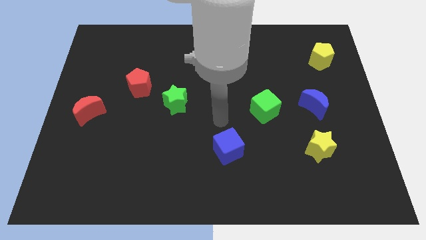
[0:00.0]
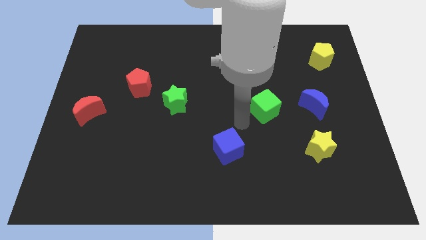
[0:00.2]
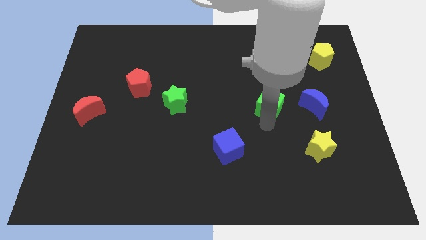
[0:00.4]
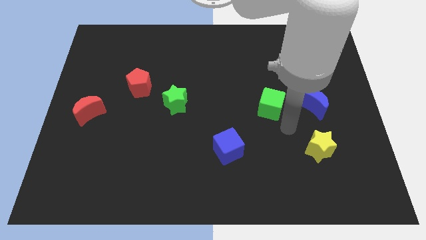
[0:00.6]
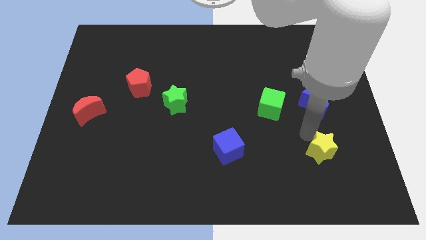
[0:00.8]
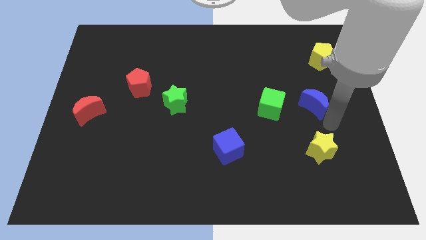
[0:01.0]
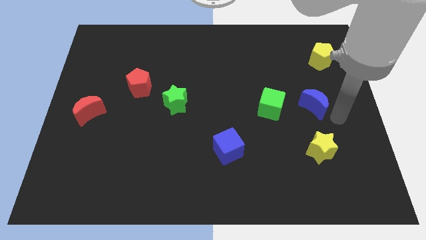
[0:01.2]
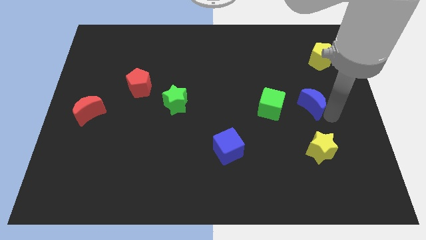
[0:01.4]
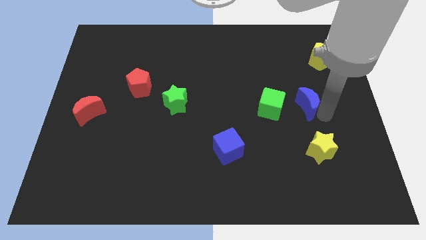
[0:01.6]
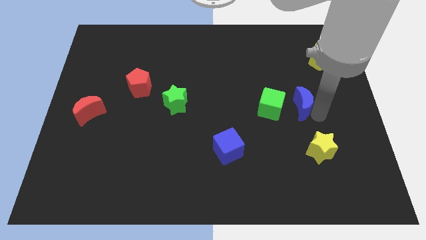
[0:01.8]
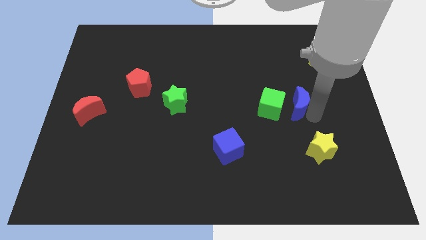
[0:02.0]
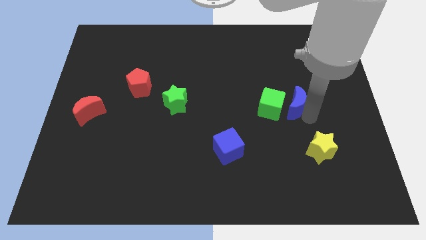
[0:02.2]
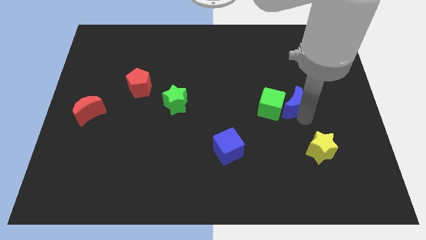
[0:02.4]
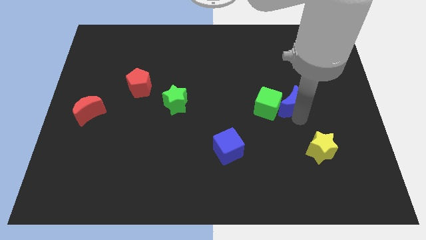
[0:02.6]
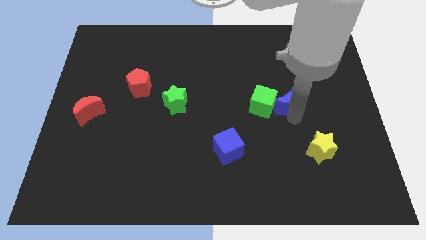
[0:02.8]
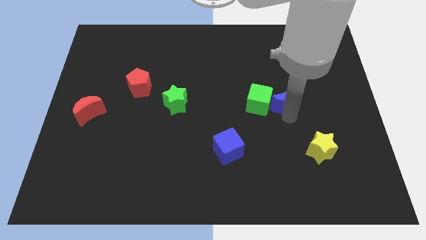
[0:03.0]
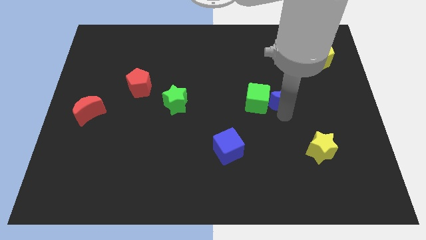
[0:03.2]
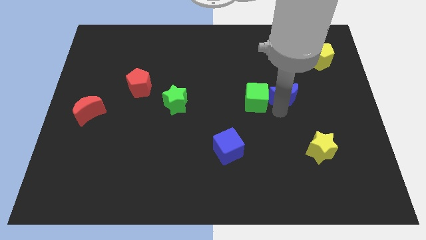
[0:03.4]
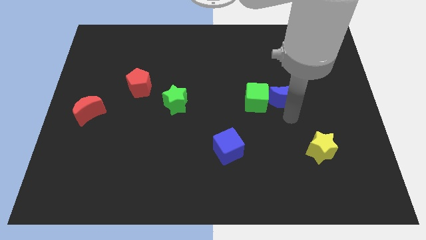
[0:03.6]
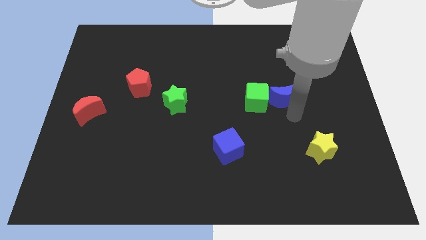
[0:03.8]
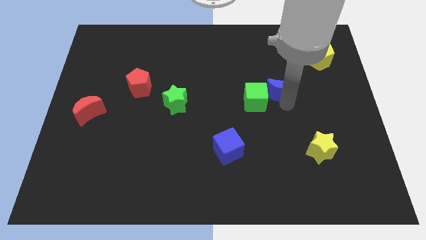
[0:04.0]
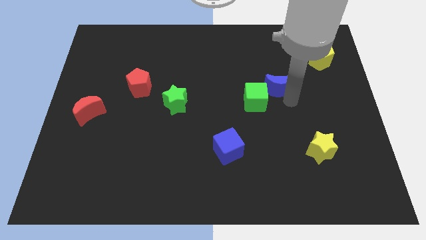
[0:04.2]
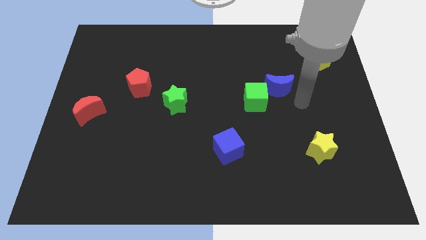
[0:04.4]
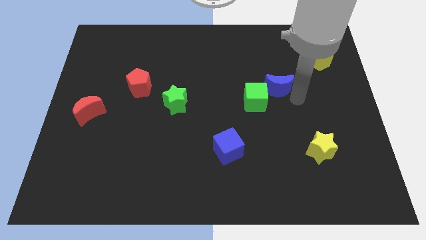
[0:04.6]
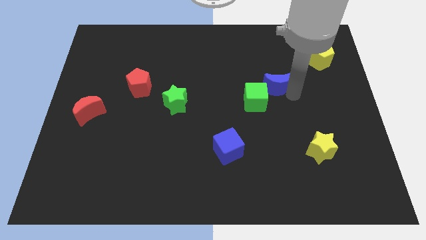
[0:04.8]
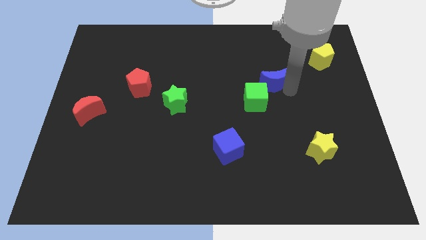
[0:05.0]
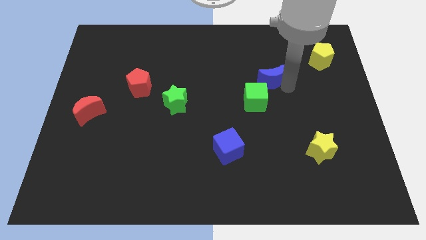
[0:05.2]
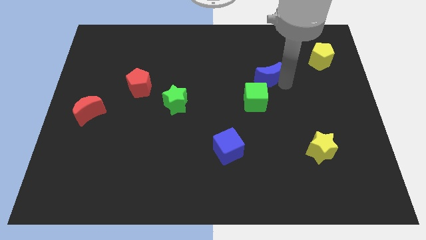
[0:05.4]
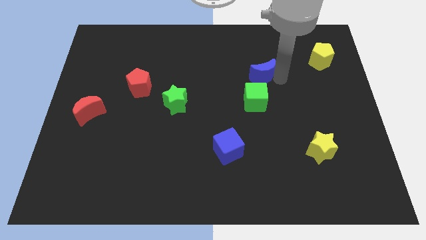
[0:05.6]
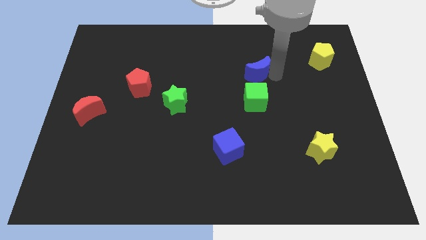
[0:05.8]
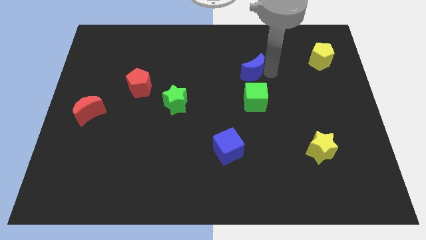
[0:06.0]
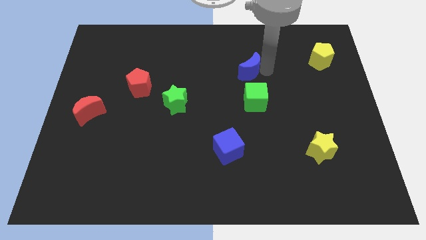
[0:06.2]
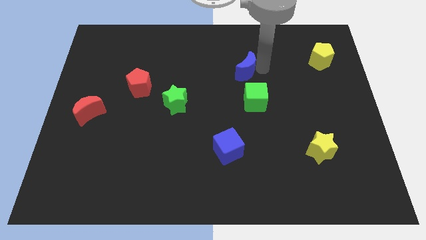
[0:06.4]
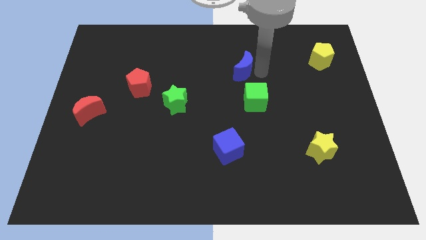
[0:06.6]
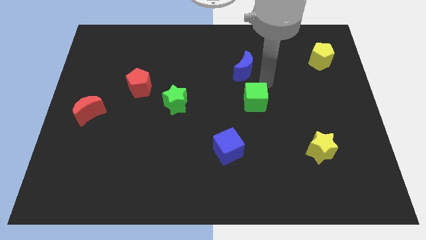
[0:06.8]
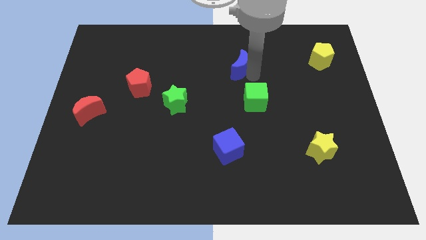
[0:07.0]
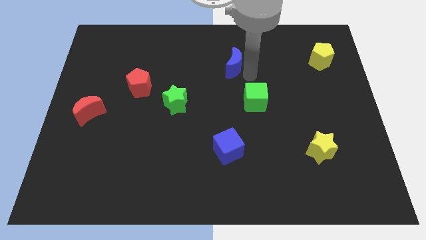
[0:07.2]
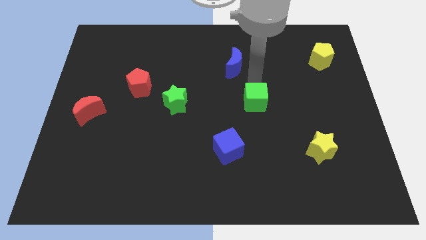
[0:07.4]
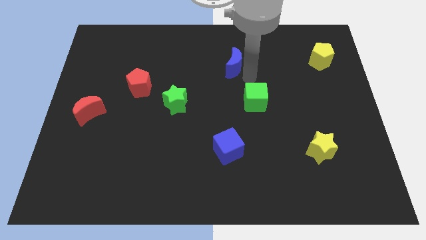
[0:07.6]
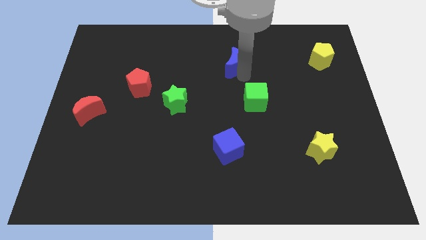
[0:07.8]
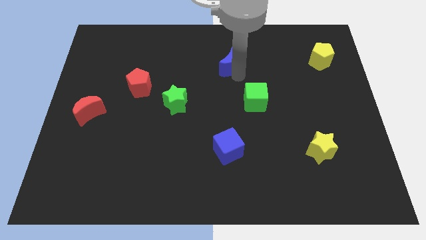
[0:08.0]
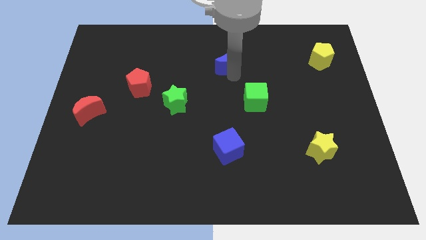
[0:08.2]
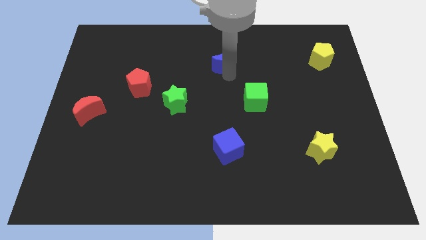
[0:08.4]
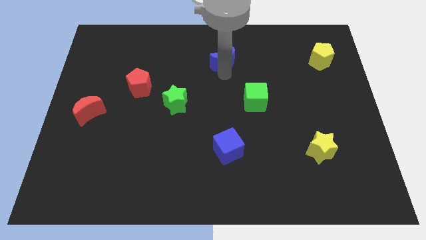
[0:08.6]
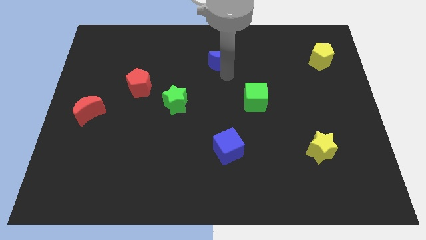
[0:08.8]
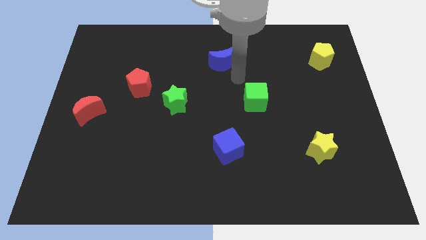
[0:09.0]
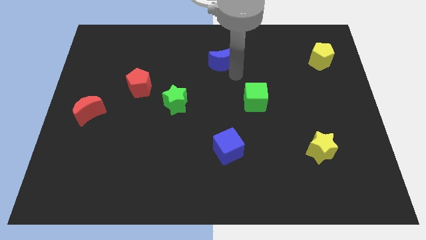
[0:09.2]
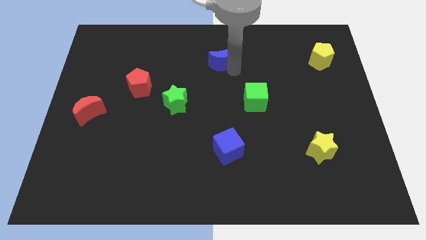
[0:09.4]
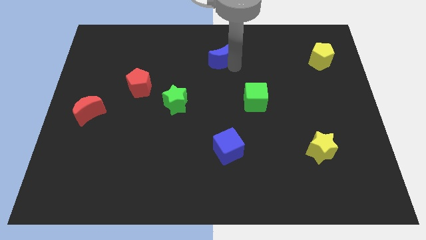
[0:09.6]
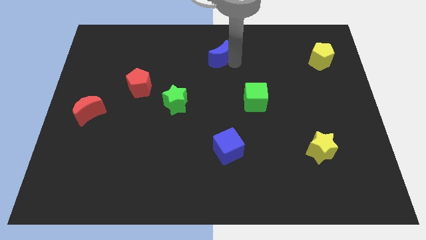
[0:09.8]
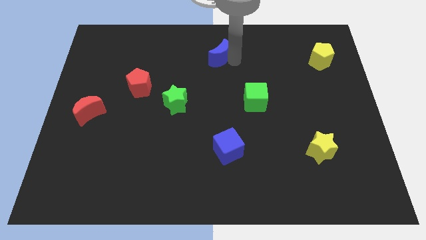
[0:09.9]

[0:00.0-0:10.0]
put the blue moon to the top side

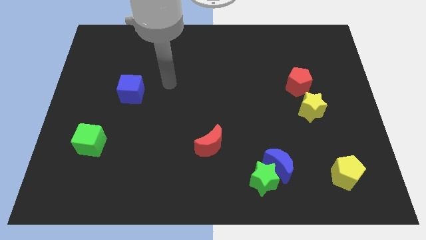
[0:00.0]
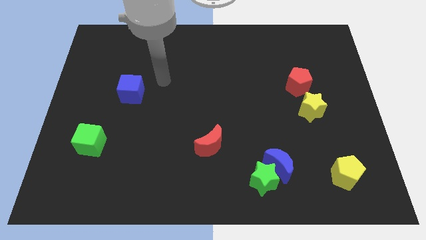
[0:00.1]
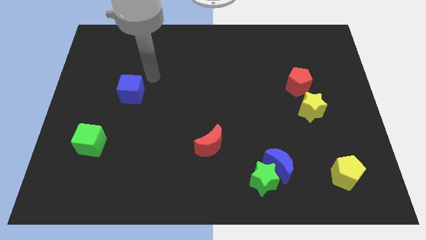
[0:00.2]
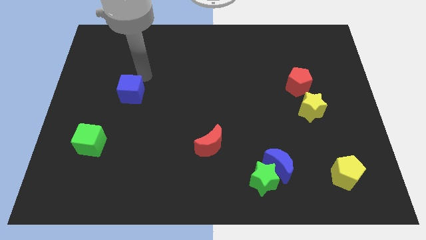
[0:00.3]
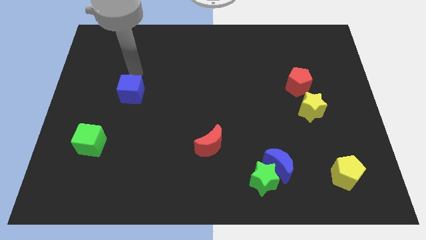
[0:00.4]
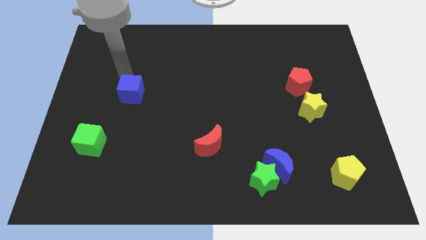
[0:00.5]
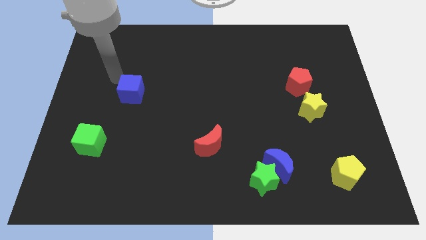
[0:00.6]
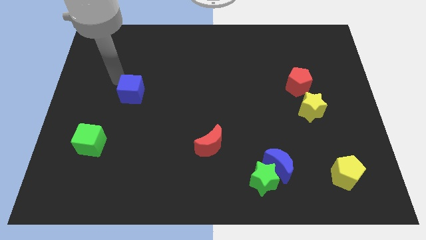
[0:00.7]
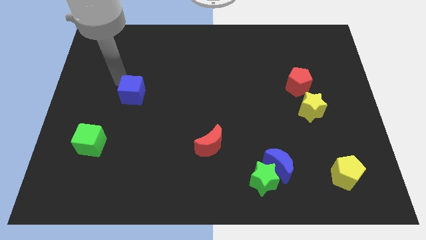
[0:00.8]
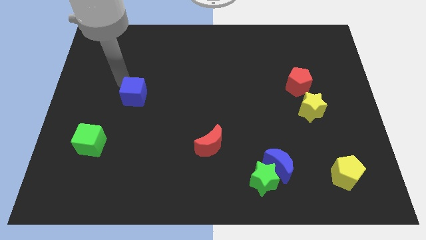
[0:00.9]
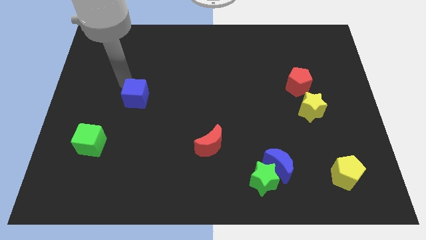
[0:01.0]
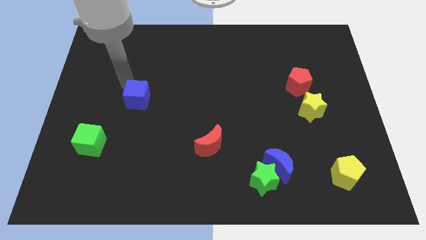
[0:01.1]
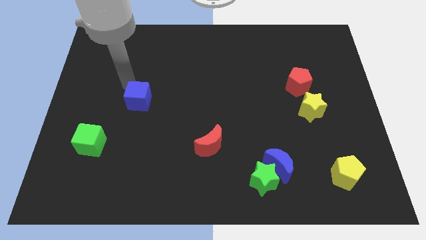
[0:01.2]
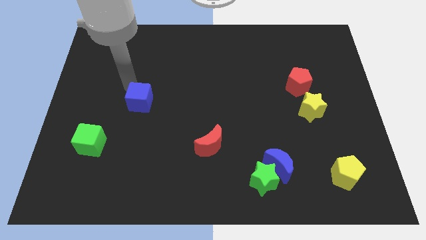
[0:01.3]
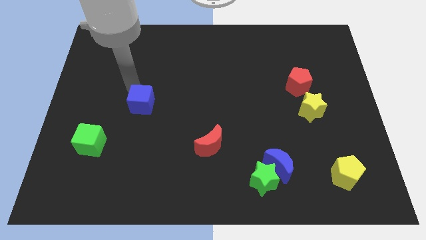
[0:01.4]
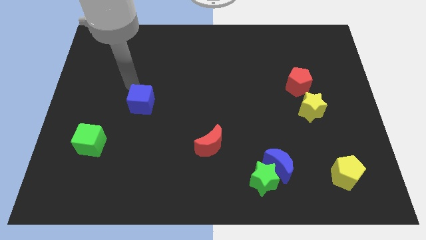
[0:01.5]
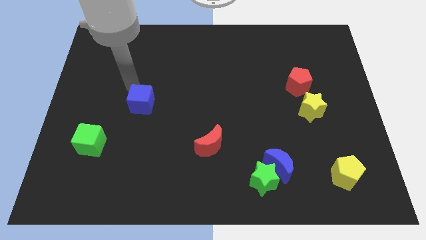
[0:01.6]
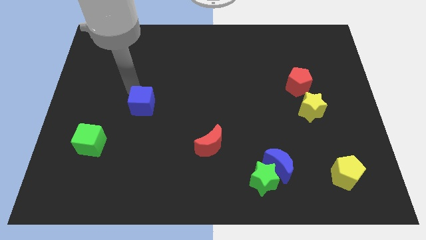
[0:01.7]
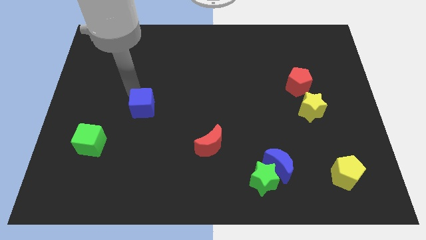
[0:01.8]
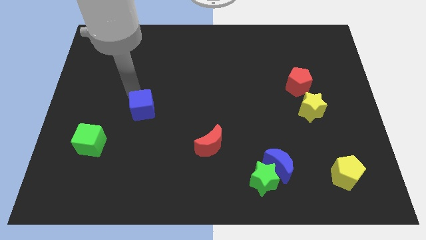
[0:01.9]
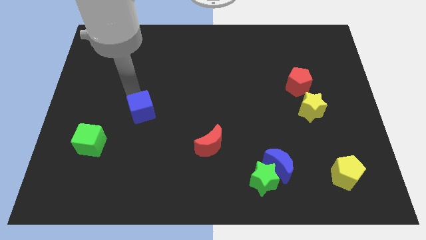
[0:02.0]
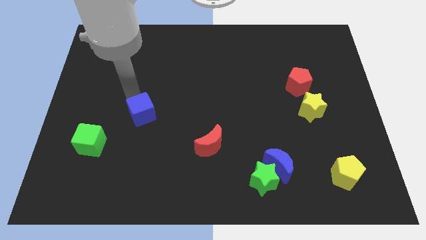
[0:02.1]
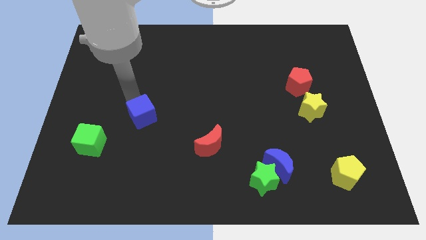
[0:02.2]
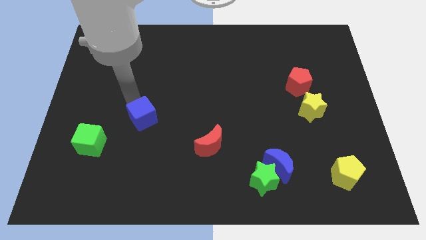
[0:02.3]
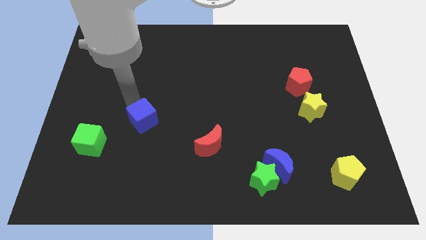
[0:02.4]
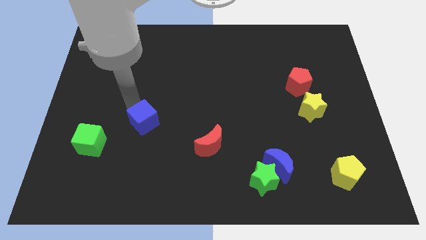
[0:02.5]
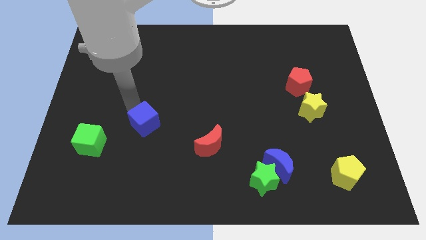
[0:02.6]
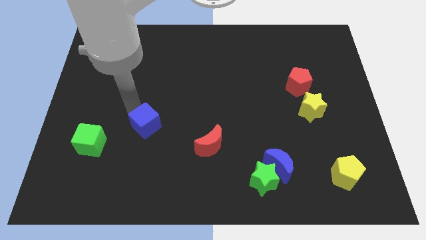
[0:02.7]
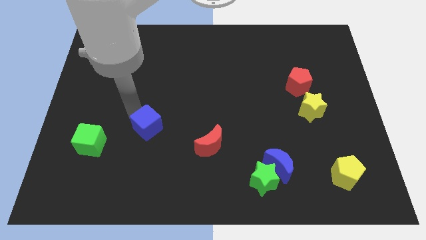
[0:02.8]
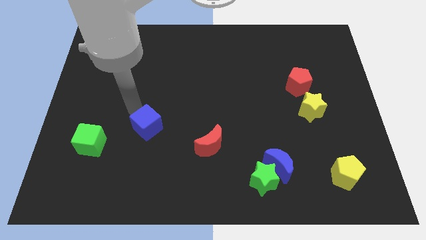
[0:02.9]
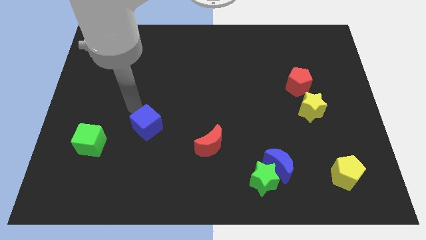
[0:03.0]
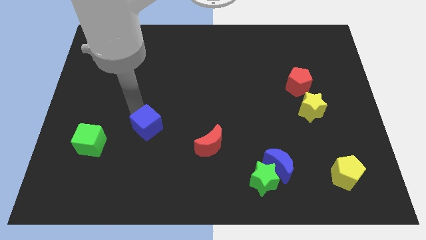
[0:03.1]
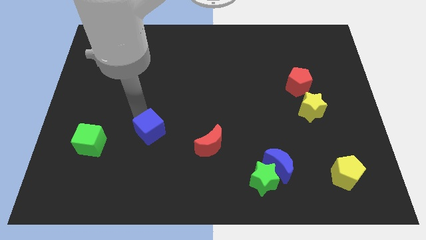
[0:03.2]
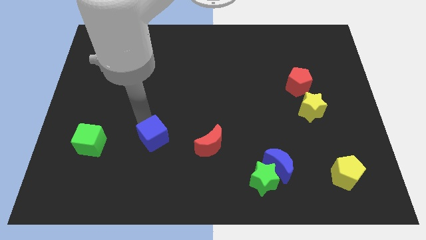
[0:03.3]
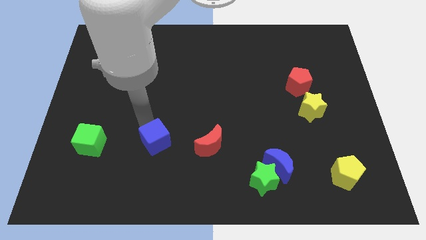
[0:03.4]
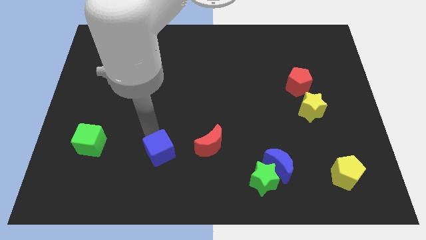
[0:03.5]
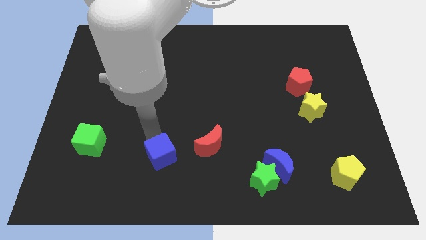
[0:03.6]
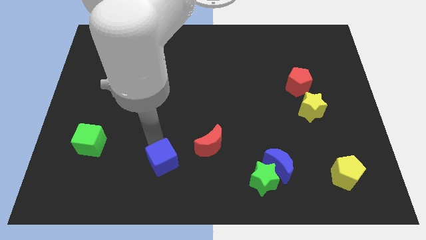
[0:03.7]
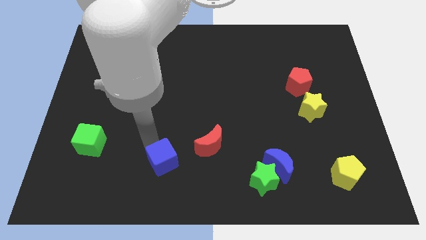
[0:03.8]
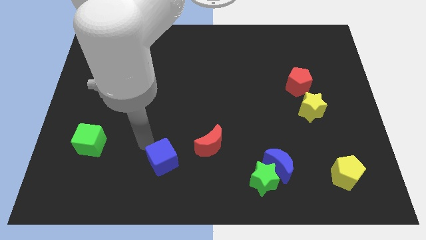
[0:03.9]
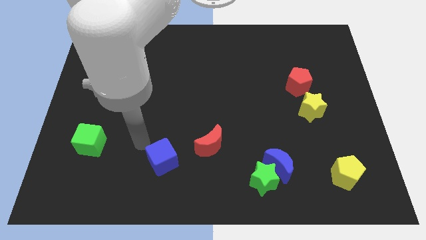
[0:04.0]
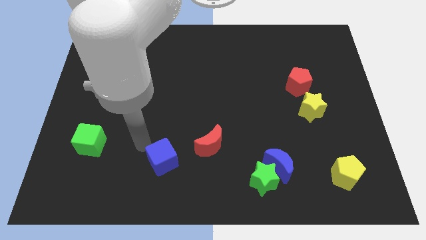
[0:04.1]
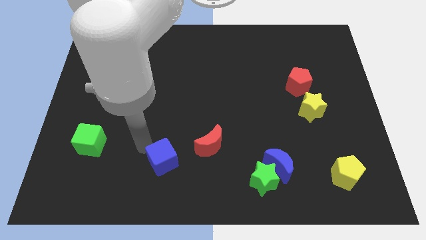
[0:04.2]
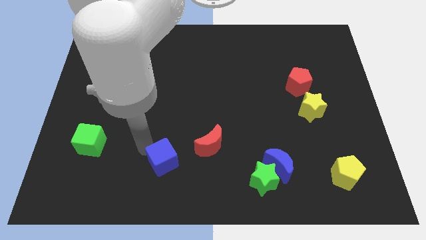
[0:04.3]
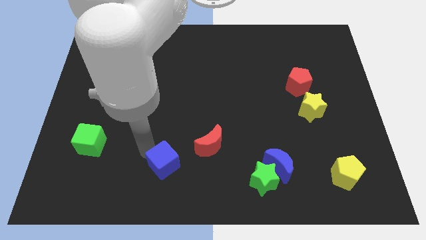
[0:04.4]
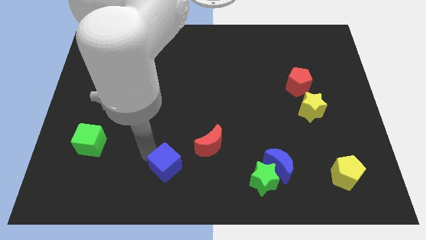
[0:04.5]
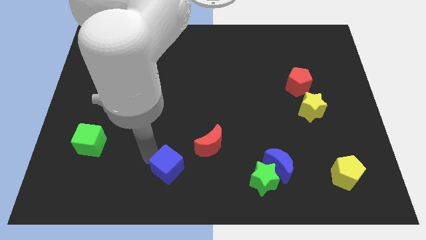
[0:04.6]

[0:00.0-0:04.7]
slide the blue cube to the bottom
